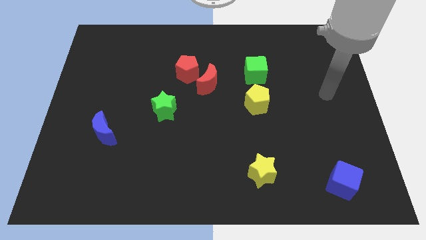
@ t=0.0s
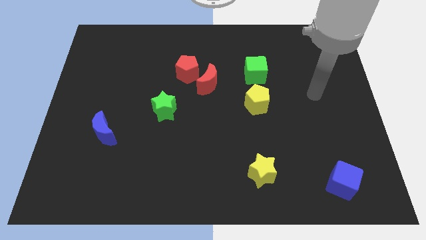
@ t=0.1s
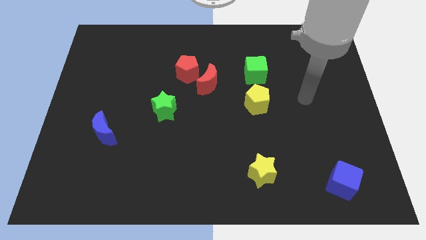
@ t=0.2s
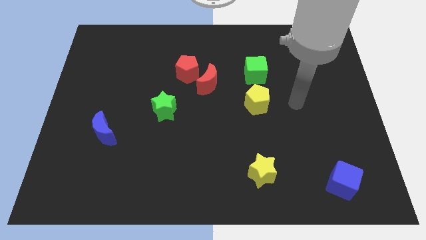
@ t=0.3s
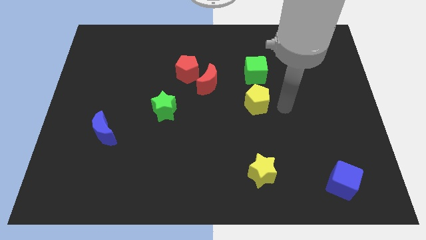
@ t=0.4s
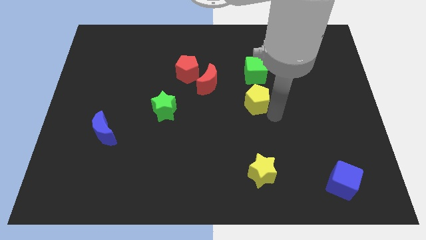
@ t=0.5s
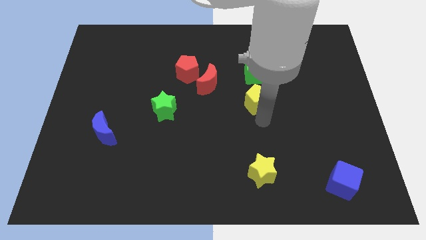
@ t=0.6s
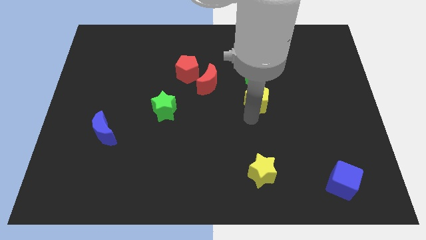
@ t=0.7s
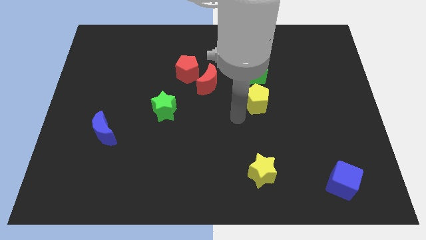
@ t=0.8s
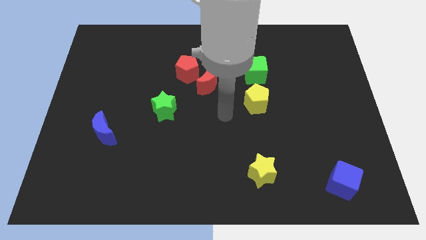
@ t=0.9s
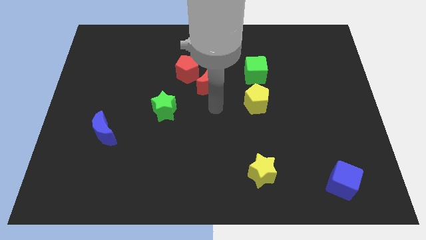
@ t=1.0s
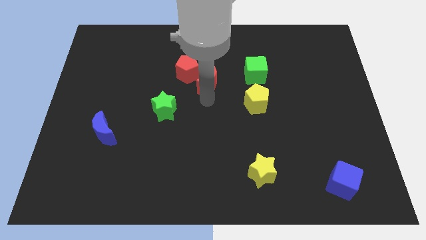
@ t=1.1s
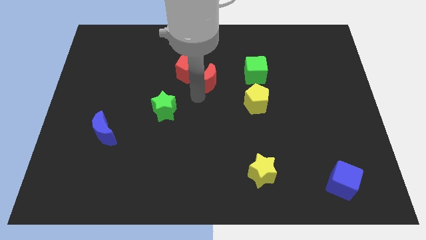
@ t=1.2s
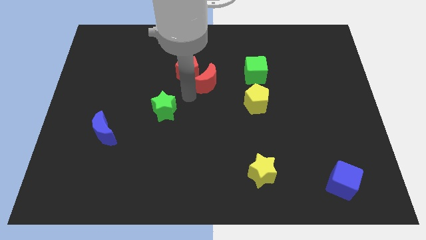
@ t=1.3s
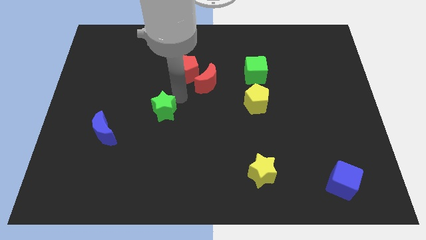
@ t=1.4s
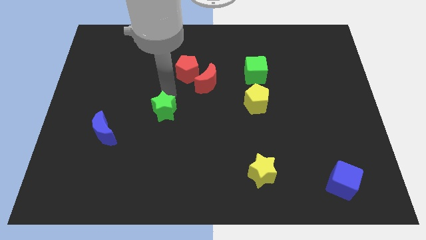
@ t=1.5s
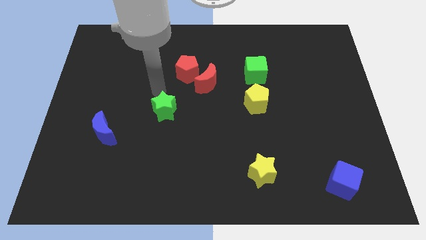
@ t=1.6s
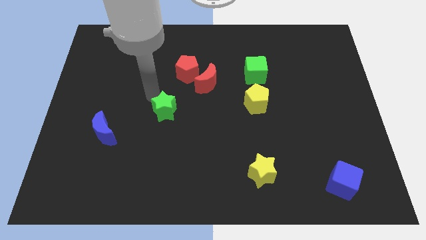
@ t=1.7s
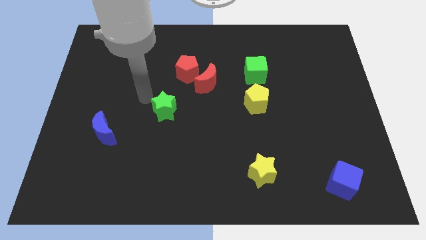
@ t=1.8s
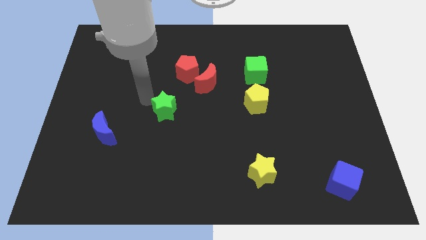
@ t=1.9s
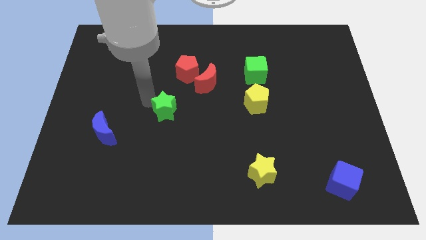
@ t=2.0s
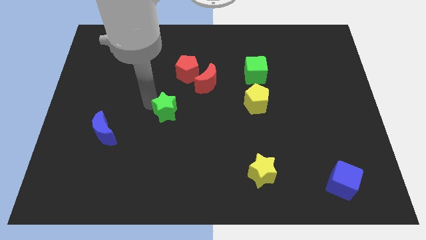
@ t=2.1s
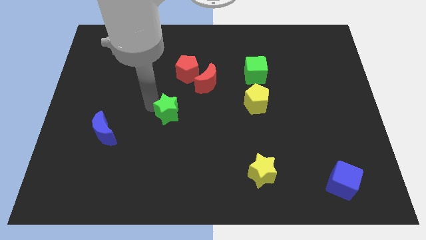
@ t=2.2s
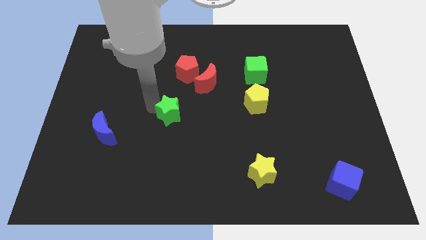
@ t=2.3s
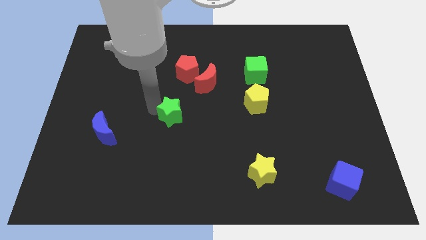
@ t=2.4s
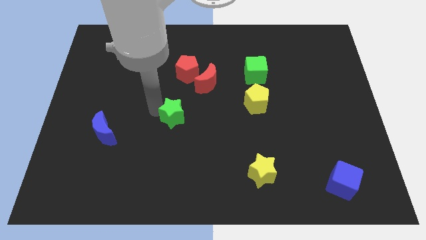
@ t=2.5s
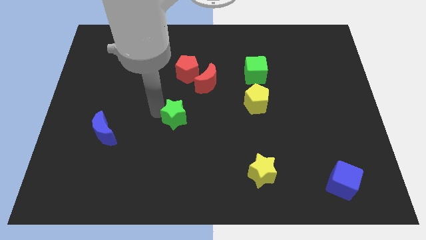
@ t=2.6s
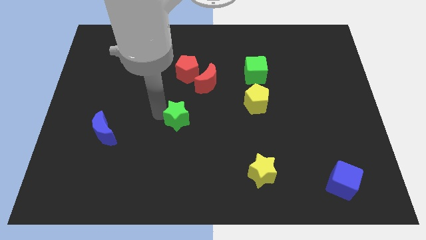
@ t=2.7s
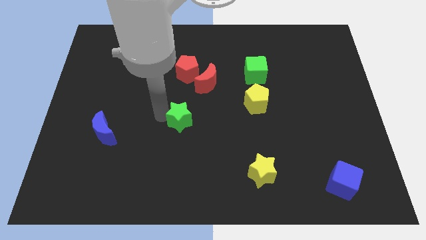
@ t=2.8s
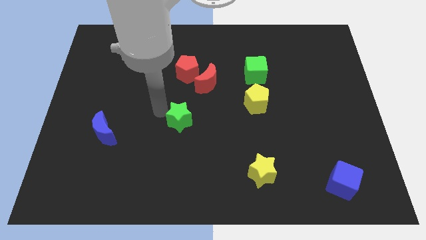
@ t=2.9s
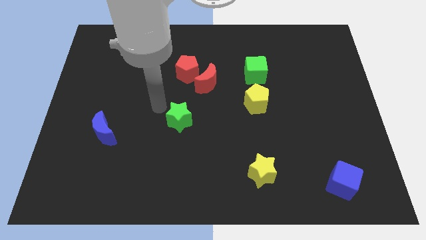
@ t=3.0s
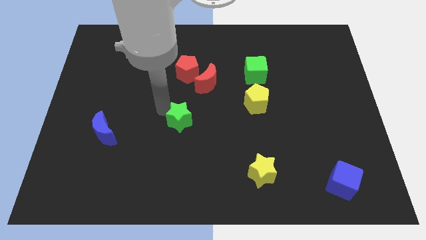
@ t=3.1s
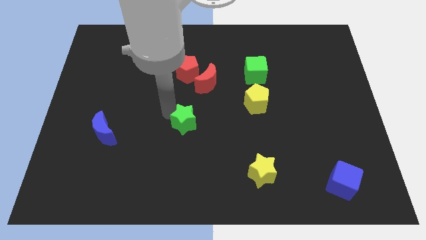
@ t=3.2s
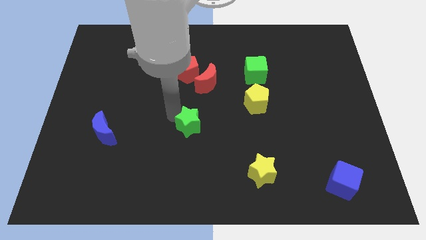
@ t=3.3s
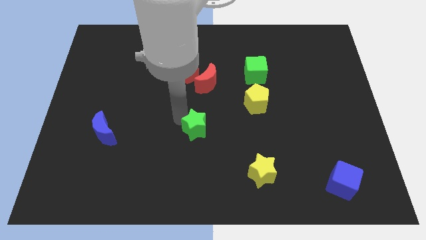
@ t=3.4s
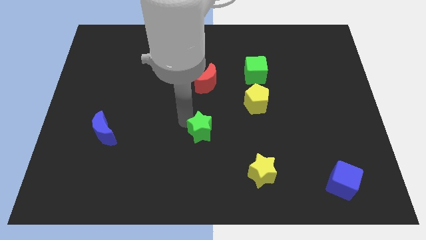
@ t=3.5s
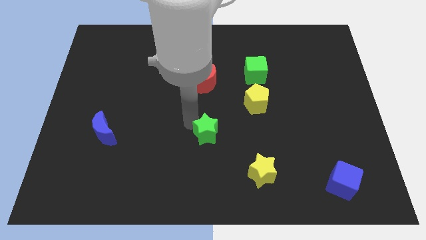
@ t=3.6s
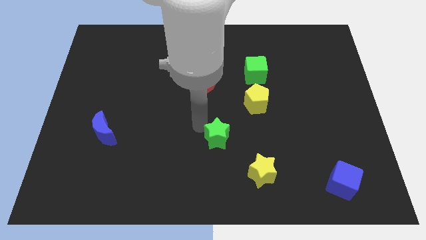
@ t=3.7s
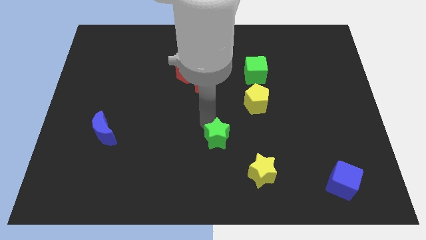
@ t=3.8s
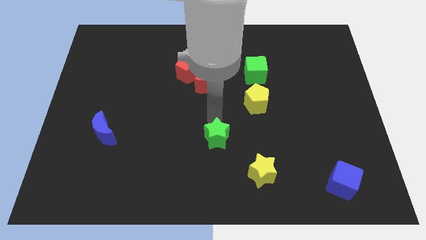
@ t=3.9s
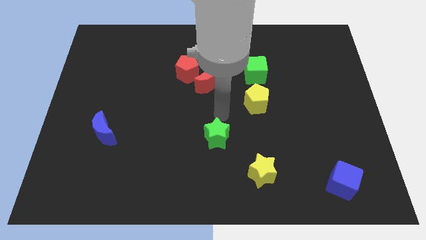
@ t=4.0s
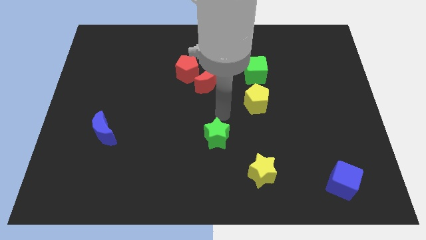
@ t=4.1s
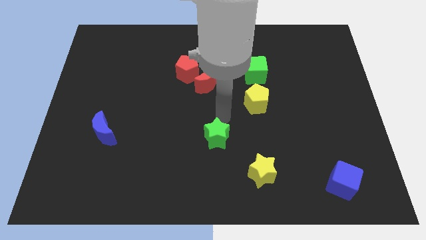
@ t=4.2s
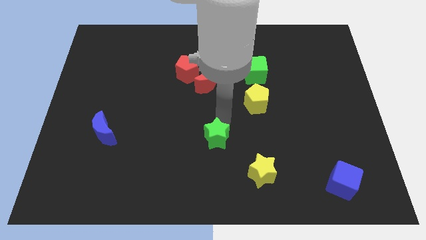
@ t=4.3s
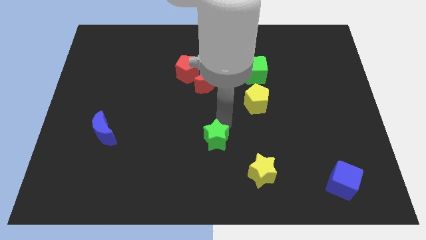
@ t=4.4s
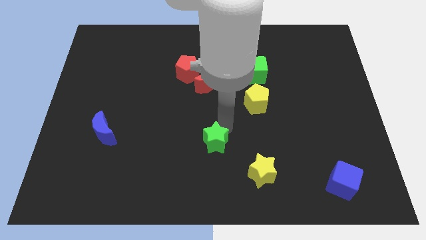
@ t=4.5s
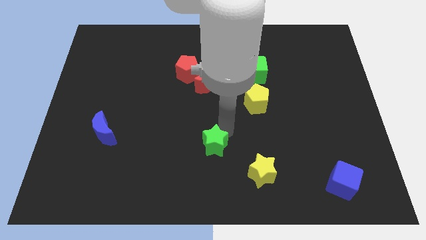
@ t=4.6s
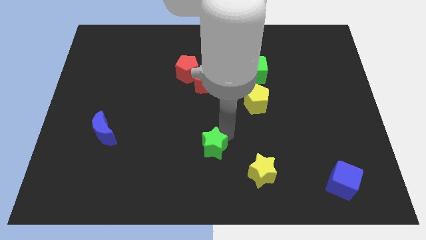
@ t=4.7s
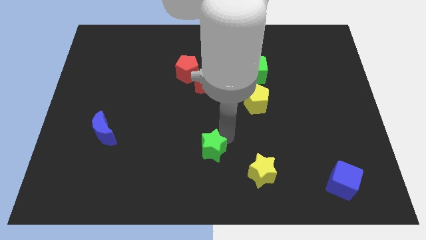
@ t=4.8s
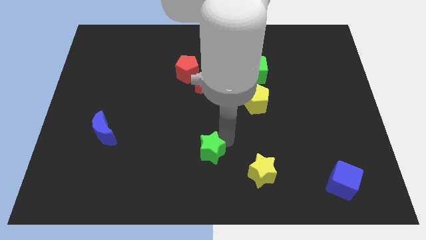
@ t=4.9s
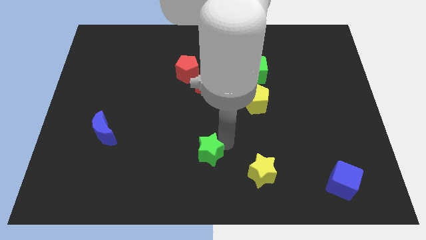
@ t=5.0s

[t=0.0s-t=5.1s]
move the green star left of the yellow star

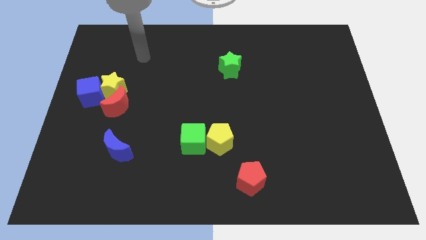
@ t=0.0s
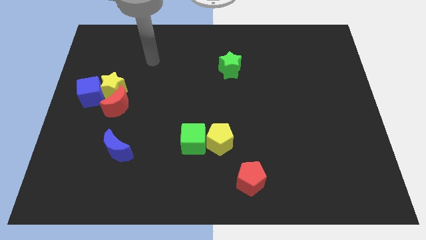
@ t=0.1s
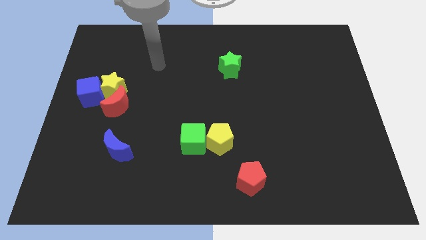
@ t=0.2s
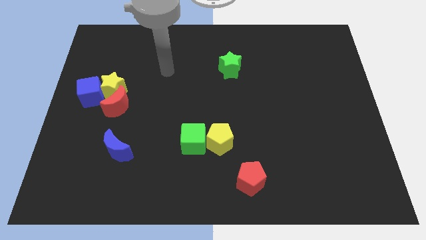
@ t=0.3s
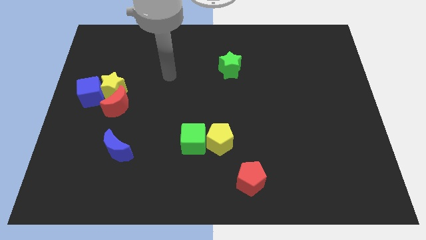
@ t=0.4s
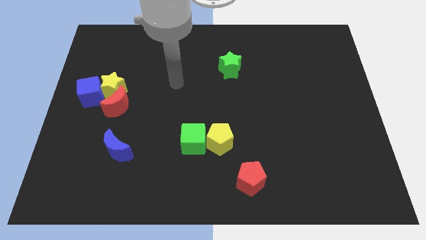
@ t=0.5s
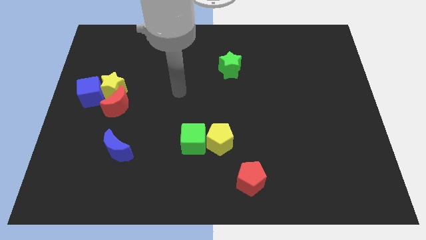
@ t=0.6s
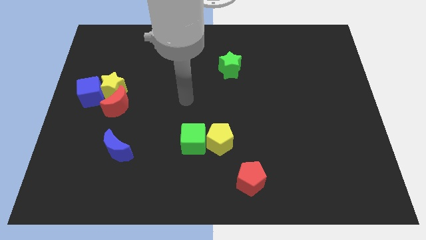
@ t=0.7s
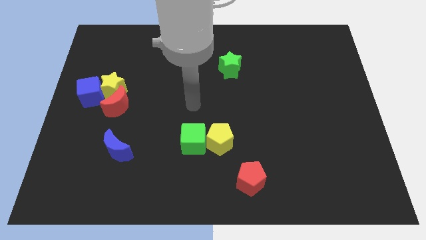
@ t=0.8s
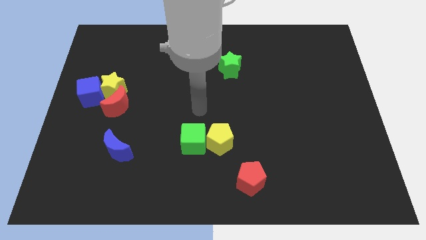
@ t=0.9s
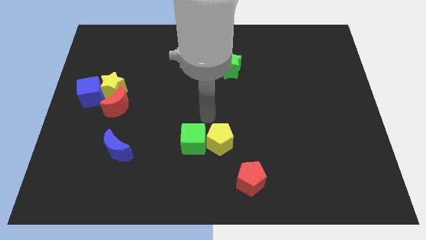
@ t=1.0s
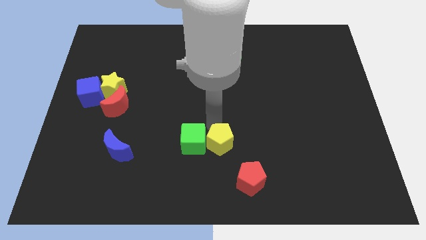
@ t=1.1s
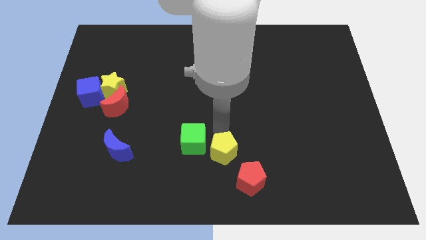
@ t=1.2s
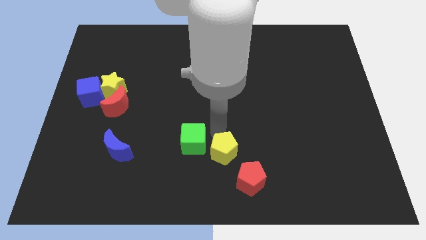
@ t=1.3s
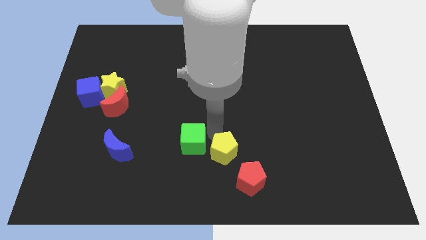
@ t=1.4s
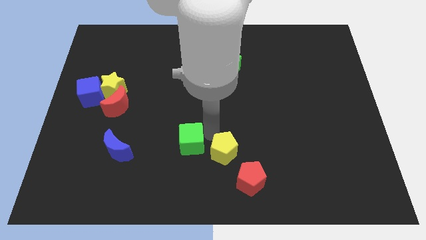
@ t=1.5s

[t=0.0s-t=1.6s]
move the green cube to the right side of the blue moon
